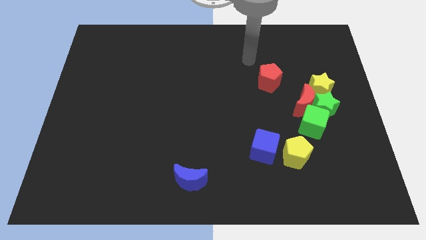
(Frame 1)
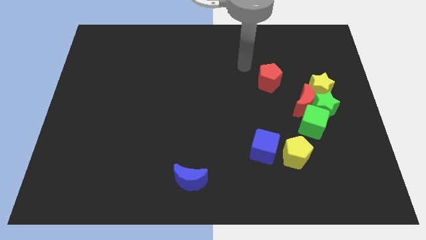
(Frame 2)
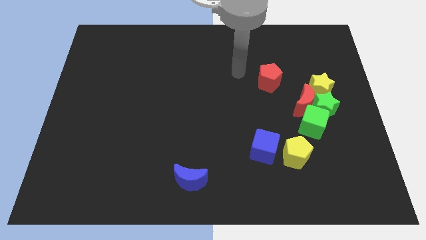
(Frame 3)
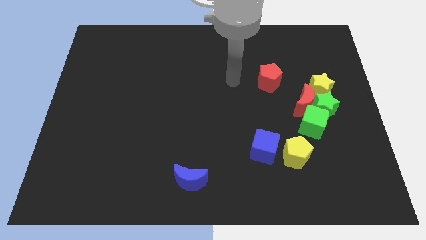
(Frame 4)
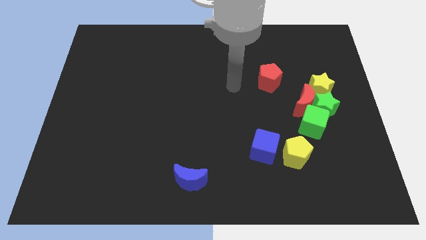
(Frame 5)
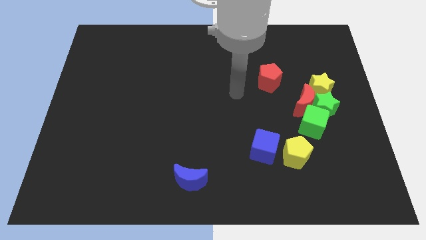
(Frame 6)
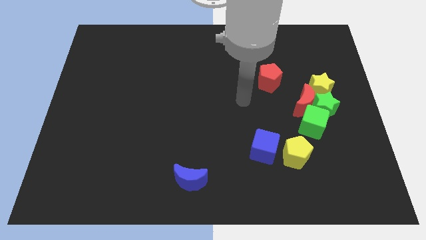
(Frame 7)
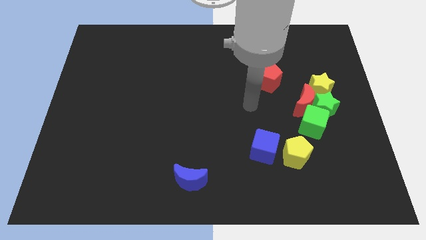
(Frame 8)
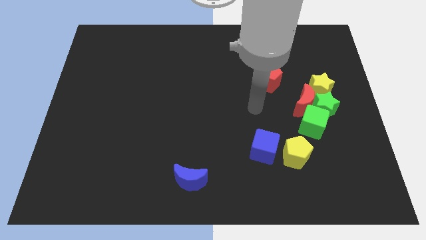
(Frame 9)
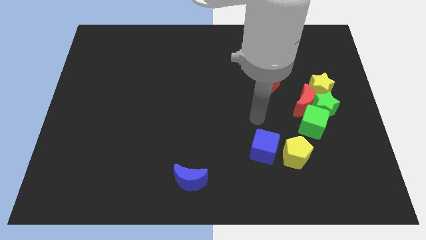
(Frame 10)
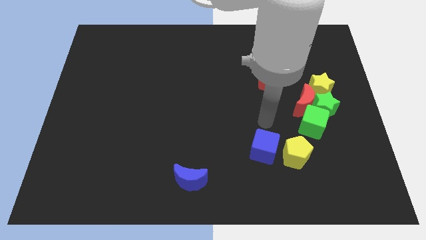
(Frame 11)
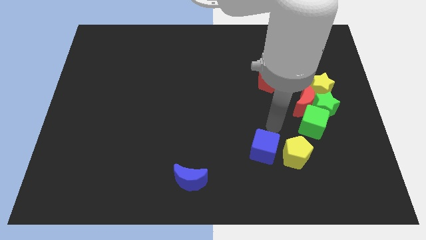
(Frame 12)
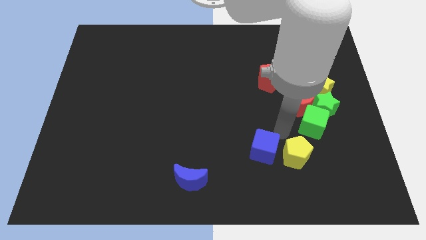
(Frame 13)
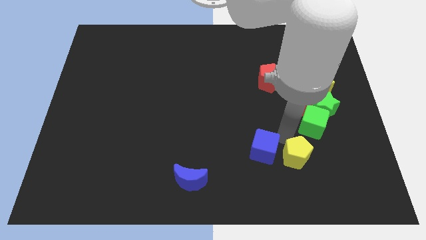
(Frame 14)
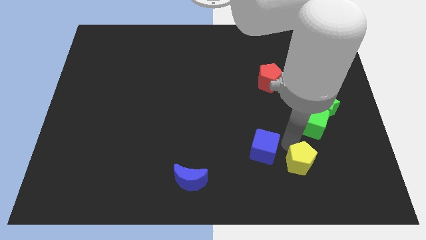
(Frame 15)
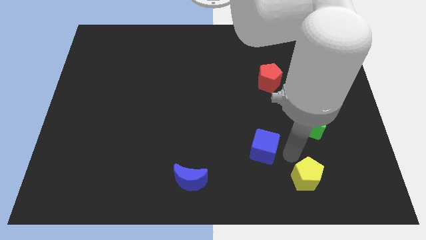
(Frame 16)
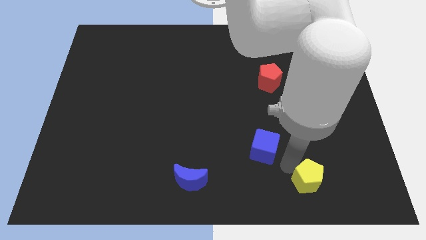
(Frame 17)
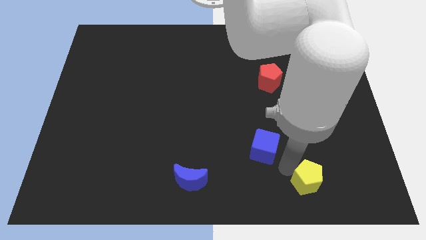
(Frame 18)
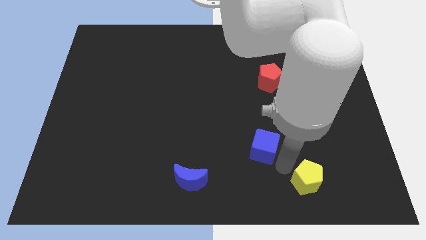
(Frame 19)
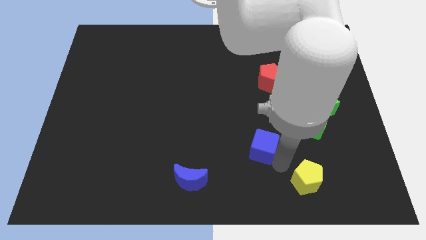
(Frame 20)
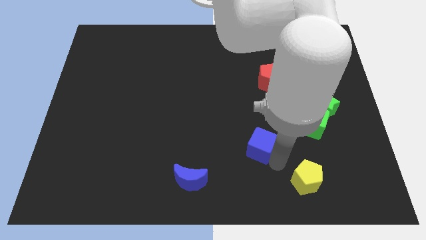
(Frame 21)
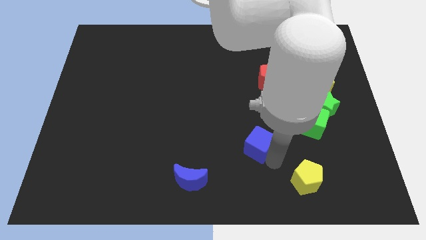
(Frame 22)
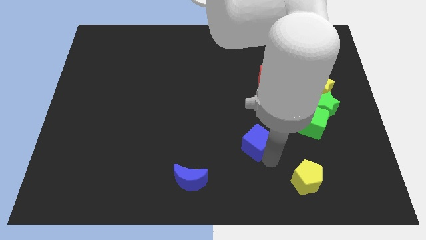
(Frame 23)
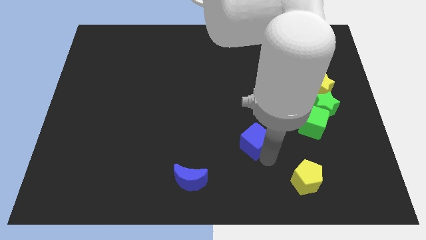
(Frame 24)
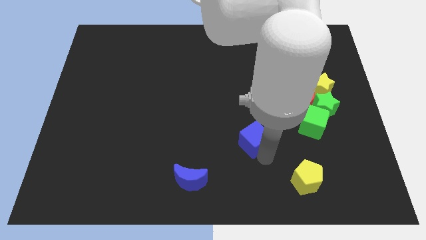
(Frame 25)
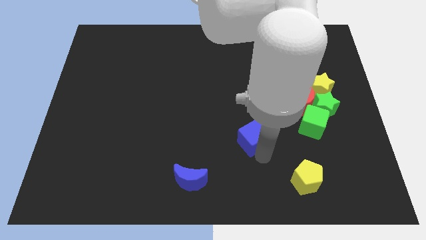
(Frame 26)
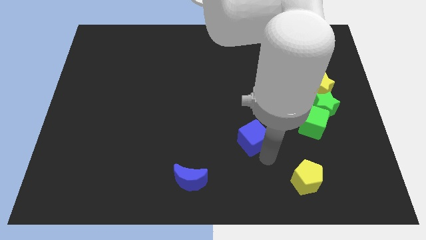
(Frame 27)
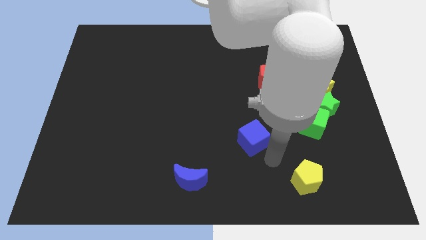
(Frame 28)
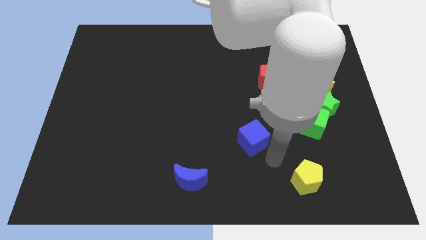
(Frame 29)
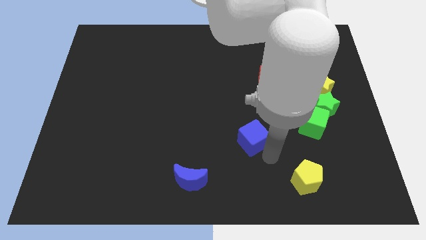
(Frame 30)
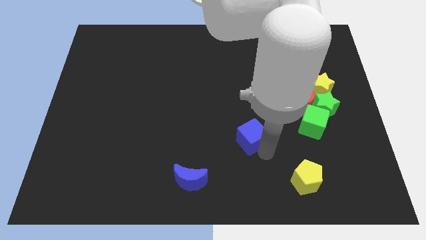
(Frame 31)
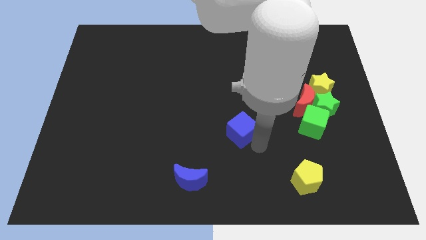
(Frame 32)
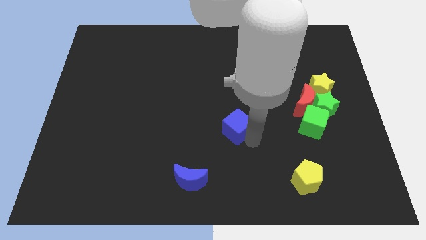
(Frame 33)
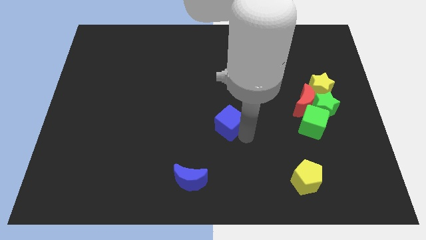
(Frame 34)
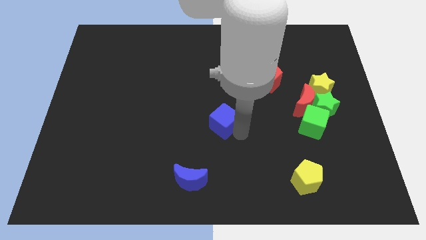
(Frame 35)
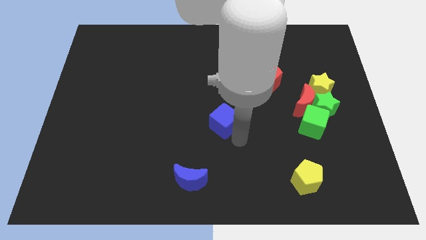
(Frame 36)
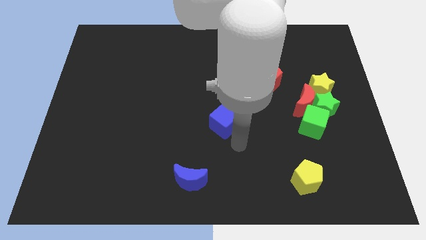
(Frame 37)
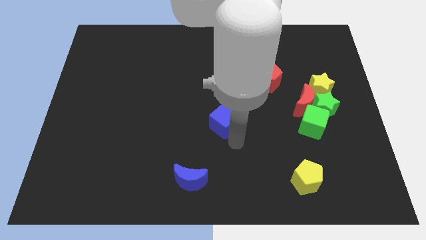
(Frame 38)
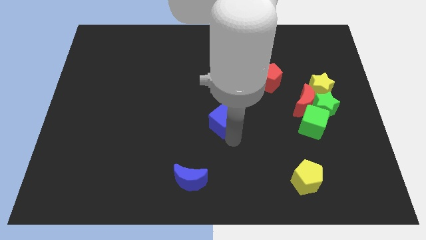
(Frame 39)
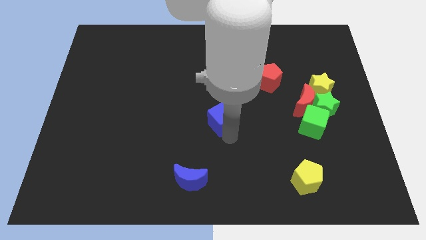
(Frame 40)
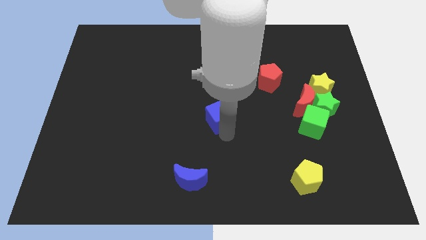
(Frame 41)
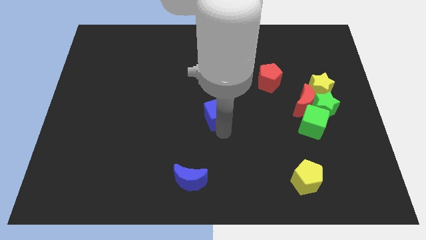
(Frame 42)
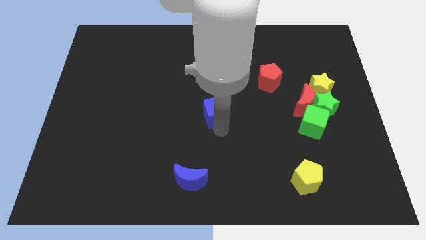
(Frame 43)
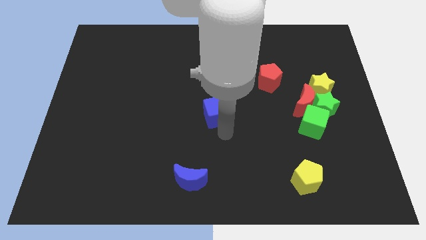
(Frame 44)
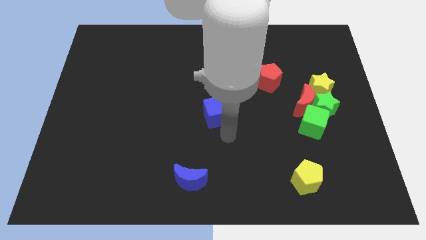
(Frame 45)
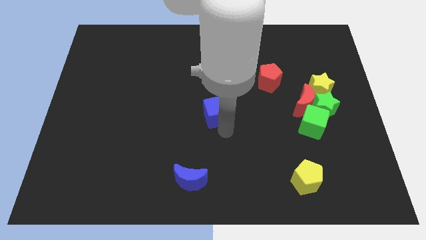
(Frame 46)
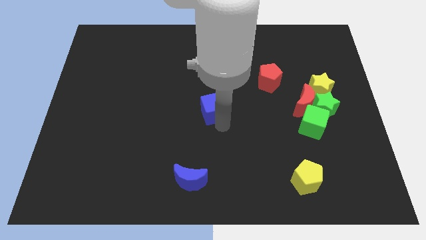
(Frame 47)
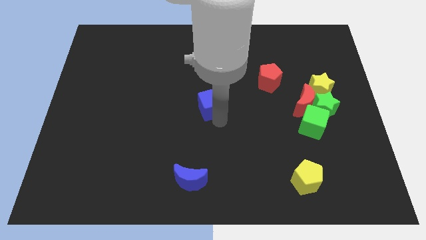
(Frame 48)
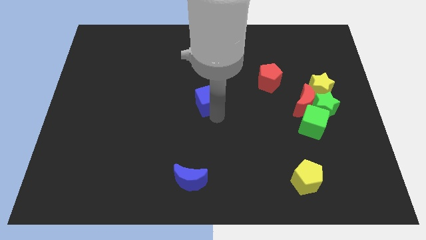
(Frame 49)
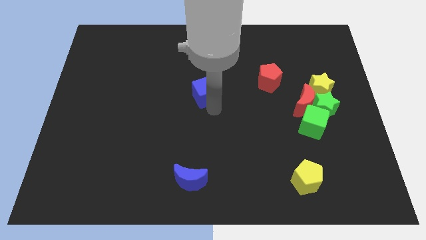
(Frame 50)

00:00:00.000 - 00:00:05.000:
move the blue cube upwards and to the left diagonally

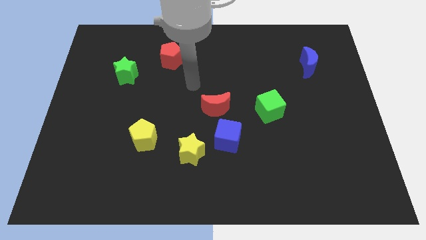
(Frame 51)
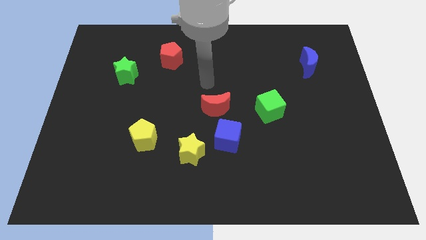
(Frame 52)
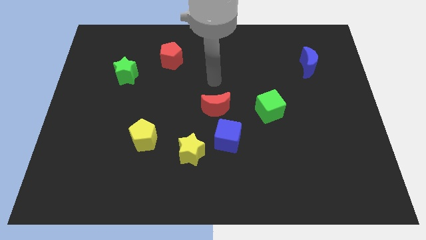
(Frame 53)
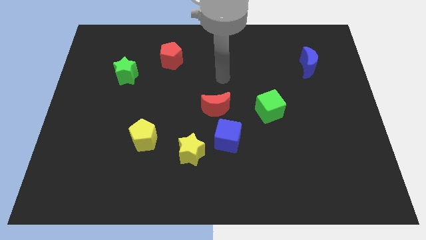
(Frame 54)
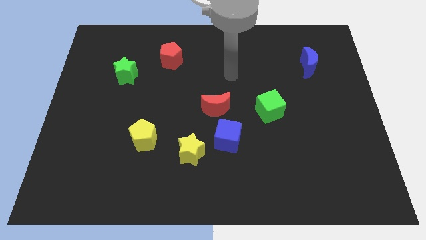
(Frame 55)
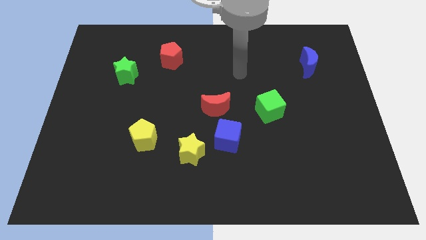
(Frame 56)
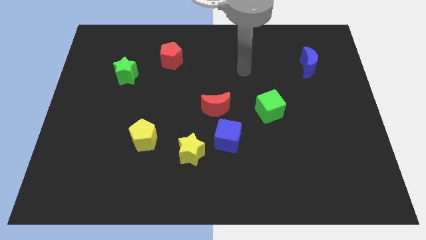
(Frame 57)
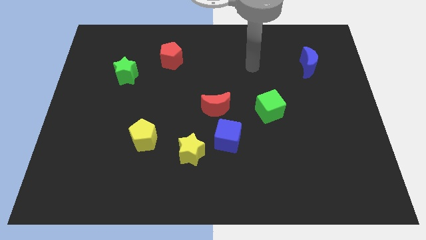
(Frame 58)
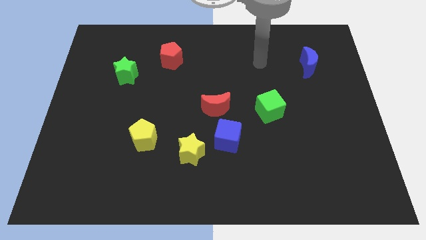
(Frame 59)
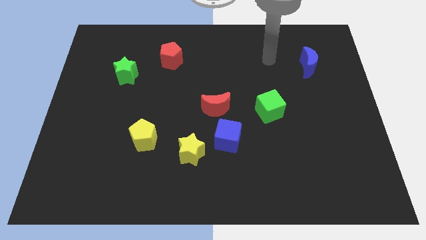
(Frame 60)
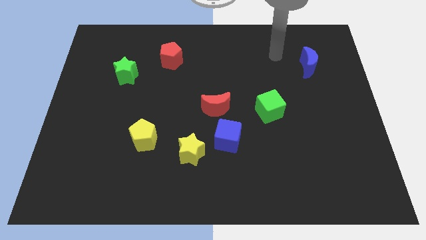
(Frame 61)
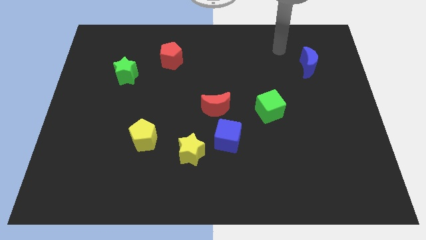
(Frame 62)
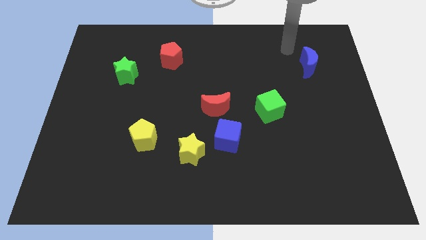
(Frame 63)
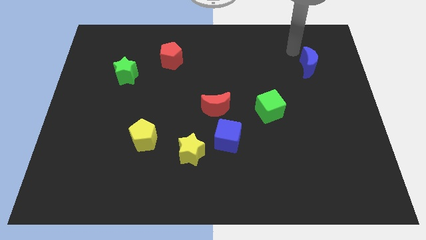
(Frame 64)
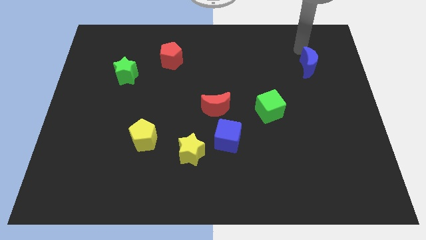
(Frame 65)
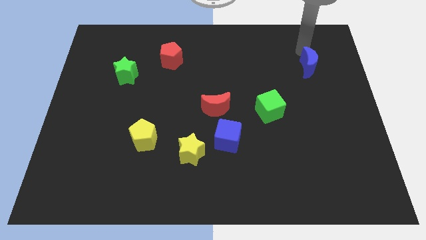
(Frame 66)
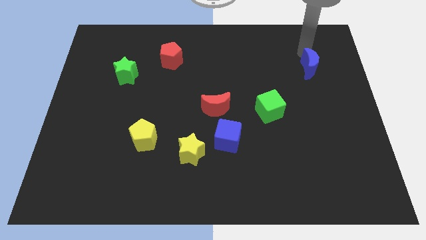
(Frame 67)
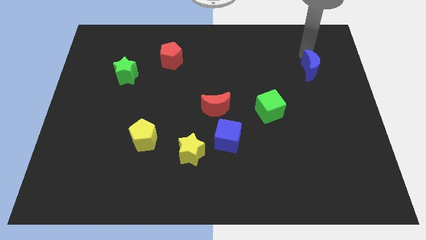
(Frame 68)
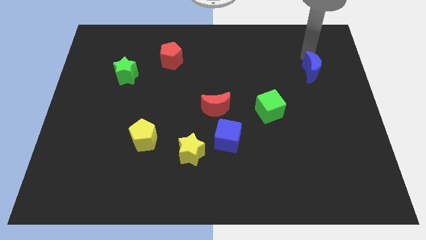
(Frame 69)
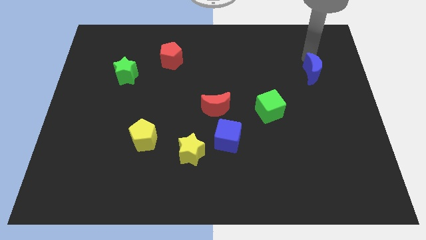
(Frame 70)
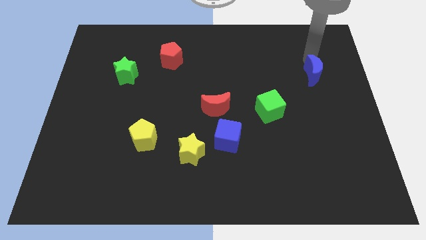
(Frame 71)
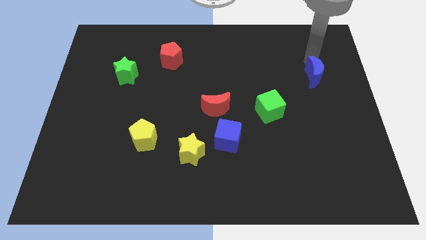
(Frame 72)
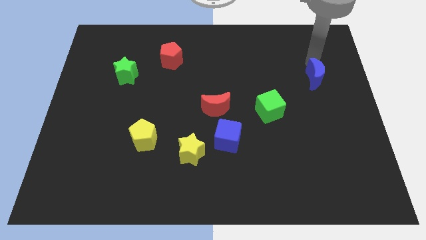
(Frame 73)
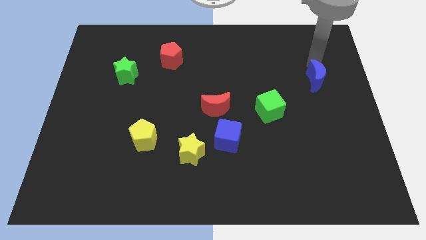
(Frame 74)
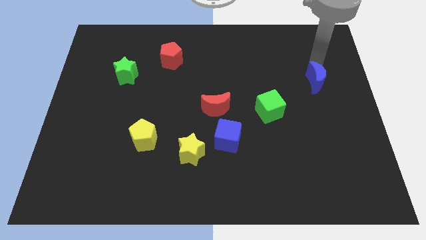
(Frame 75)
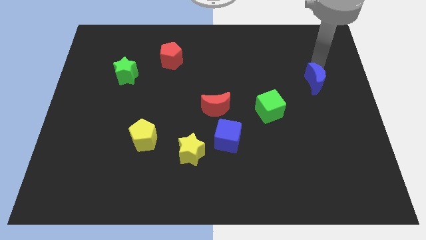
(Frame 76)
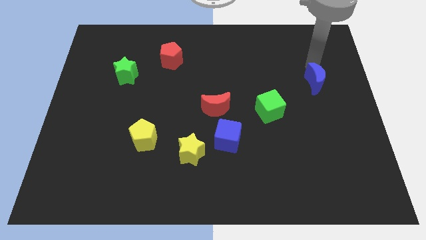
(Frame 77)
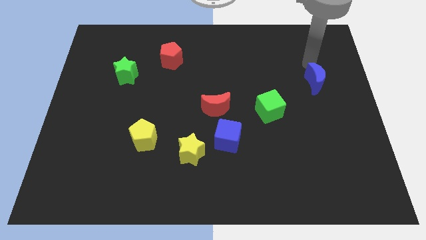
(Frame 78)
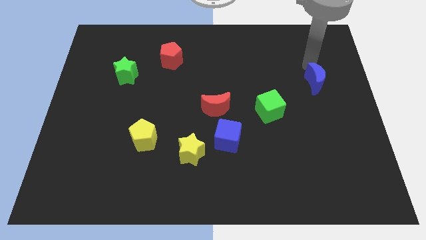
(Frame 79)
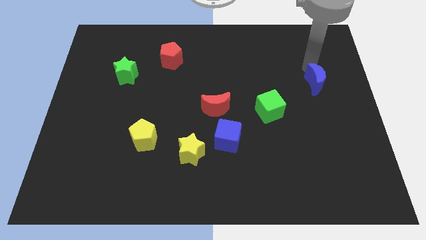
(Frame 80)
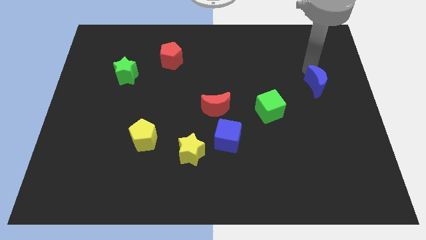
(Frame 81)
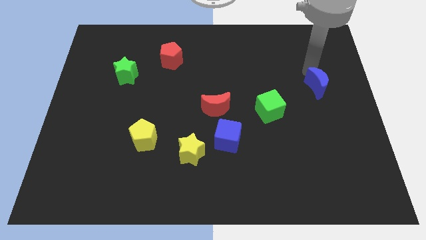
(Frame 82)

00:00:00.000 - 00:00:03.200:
push the blue moon somewhat down
